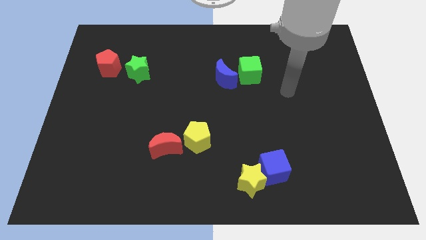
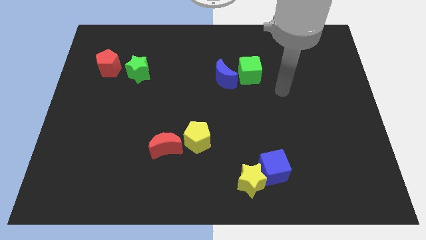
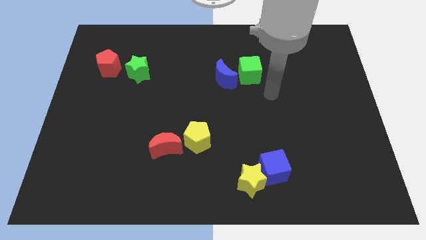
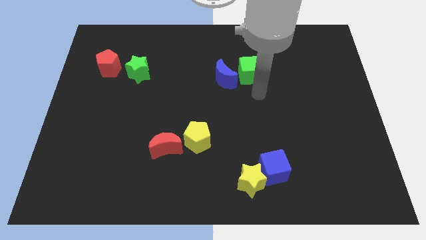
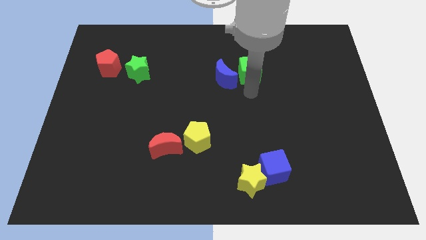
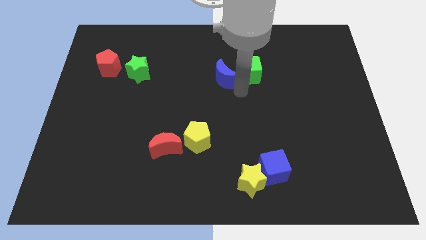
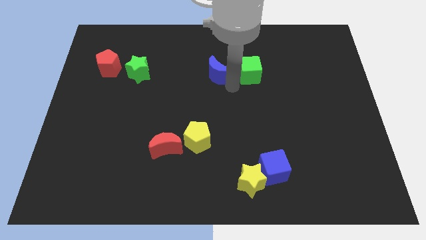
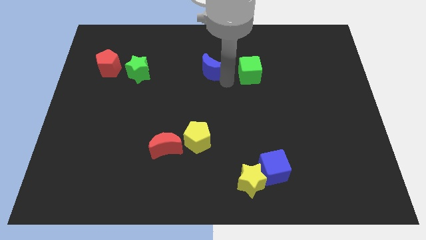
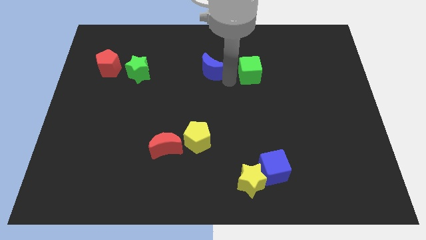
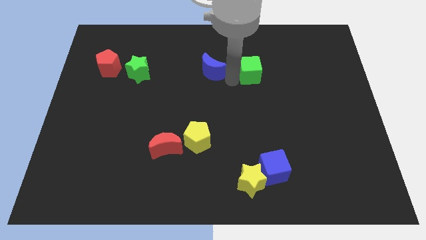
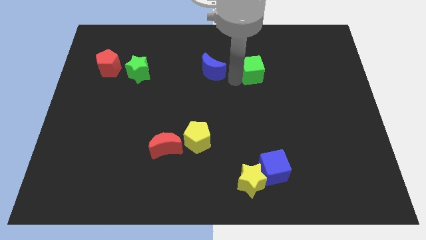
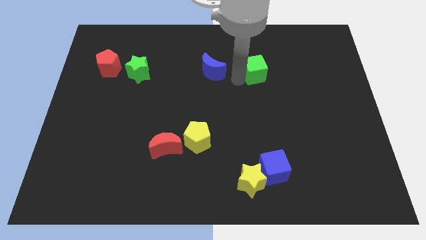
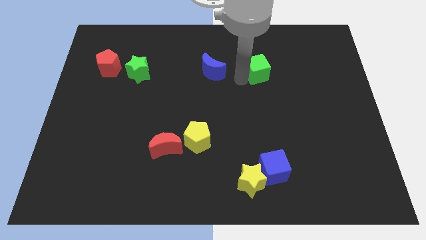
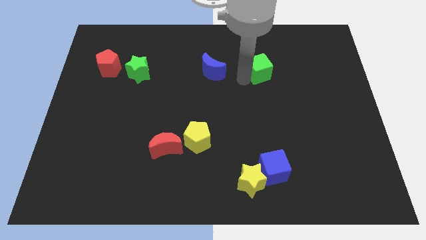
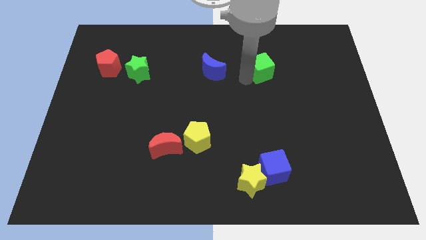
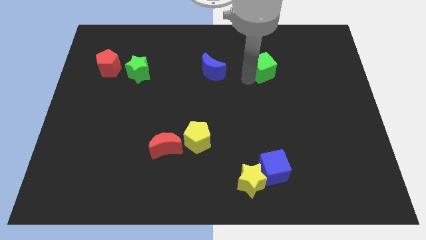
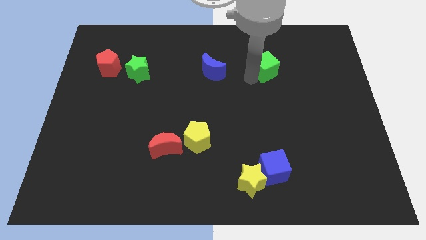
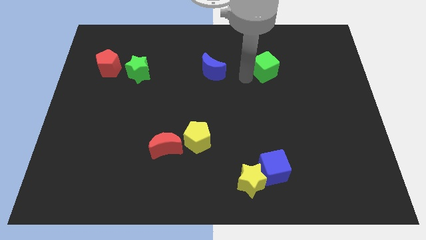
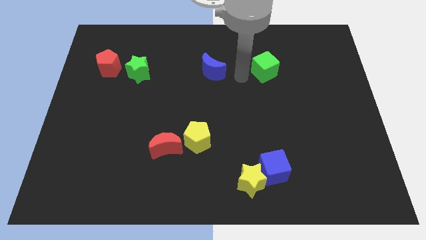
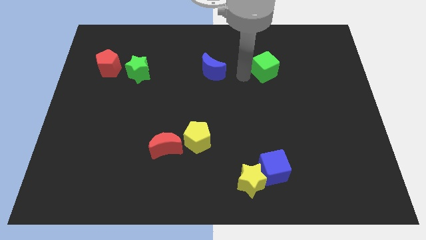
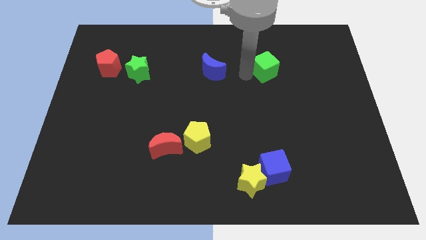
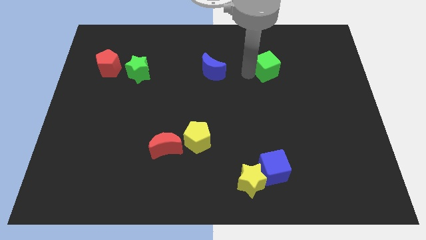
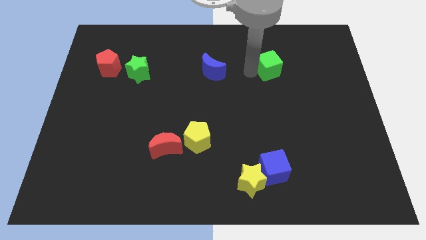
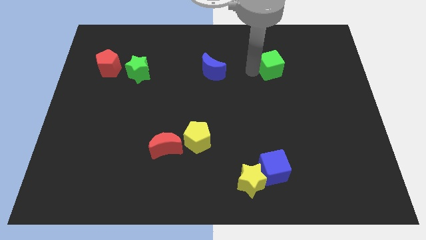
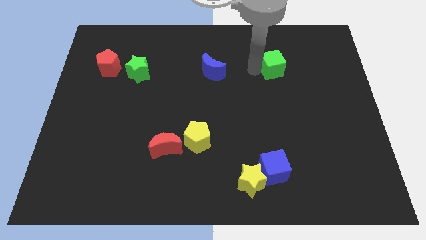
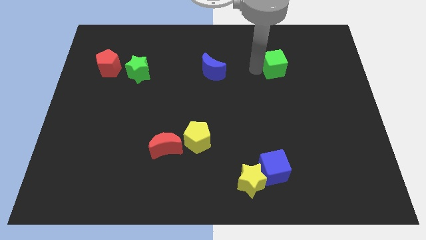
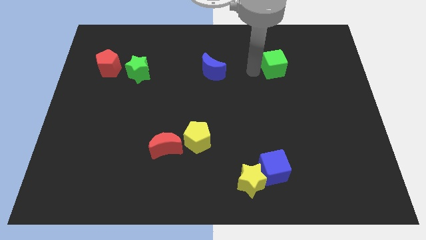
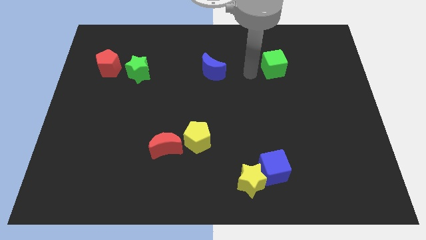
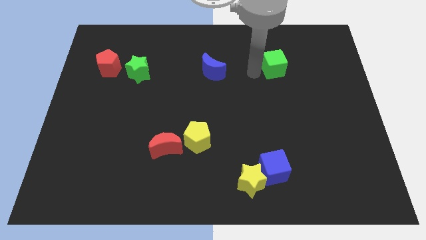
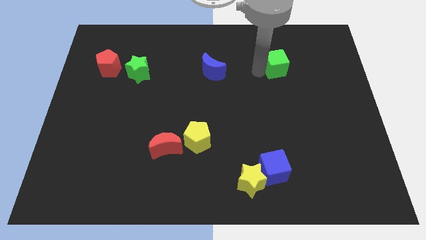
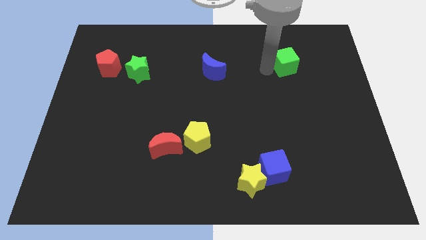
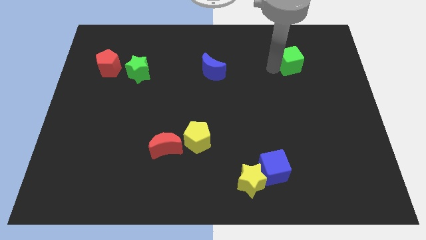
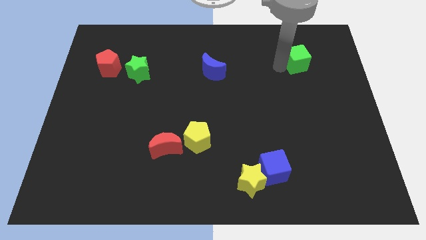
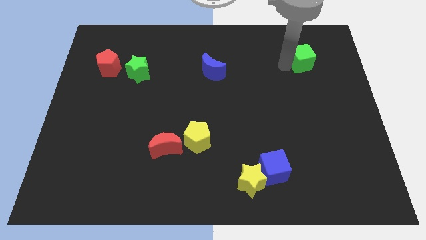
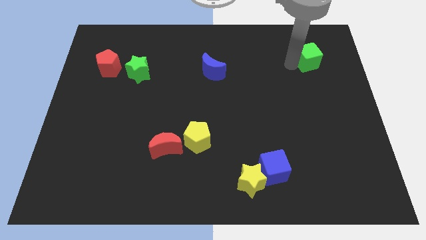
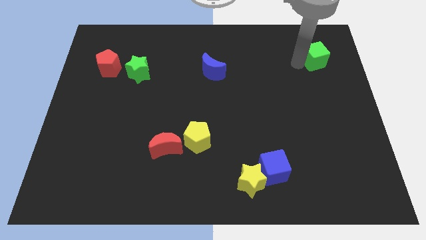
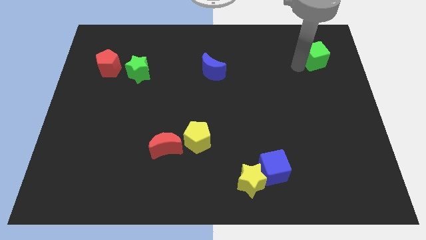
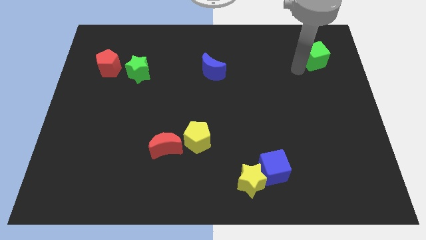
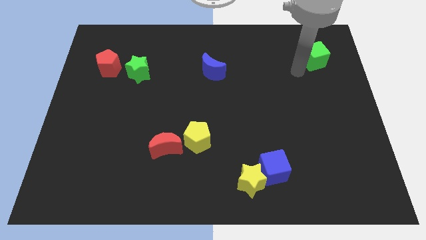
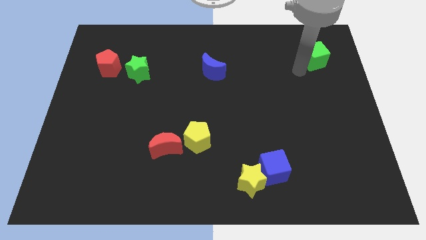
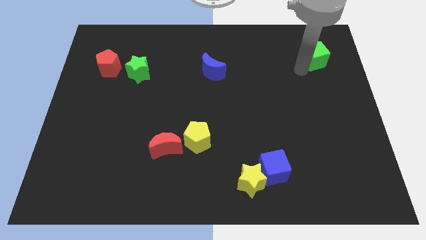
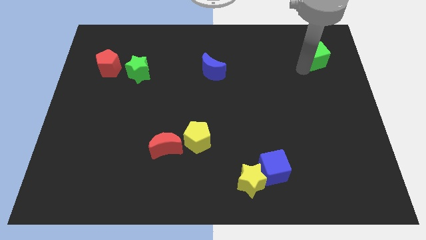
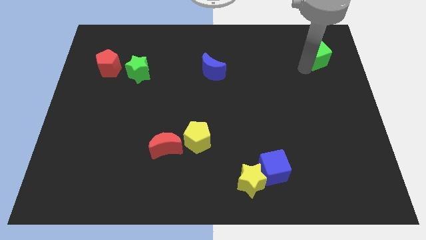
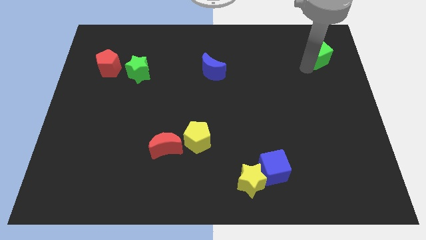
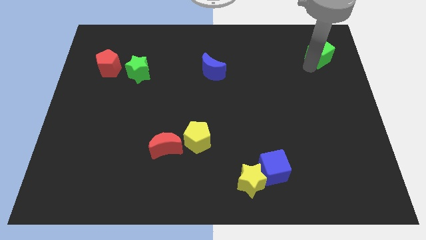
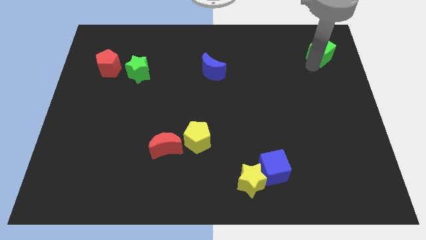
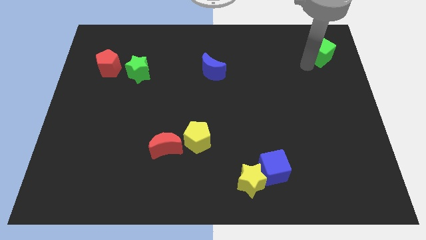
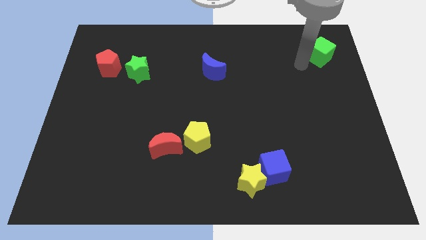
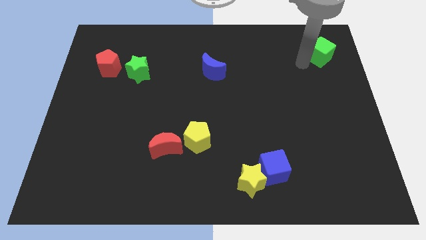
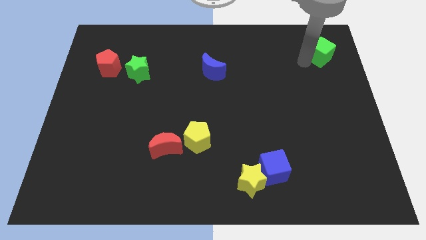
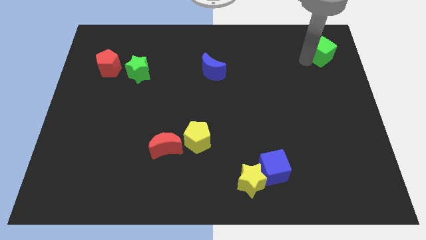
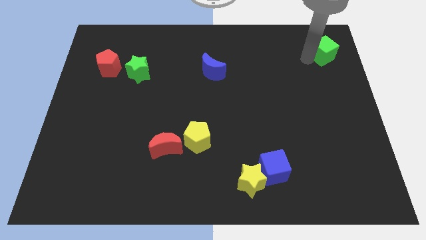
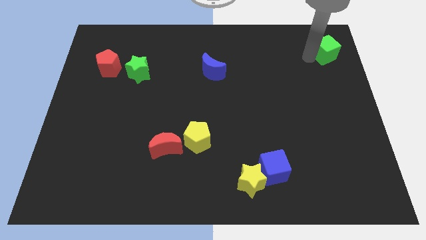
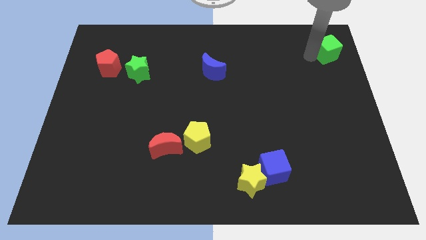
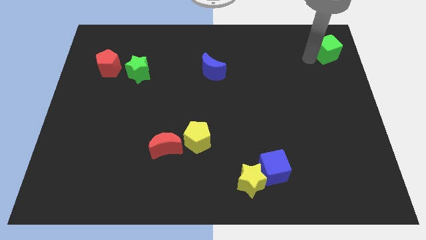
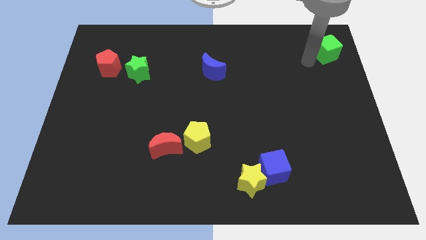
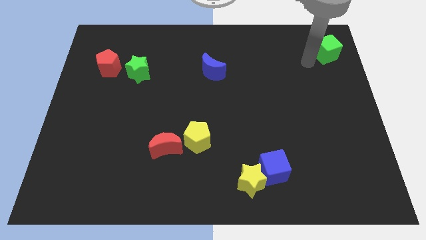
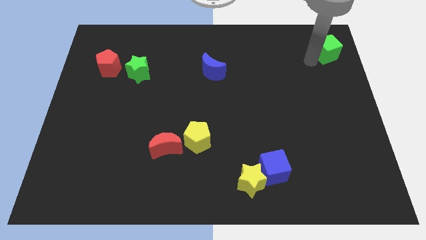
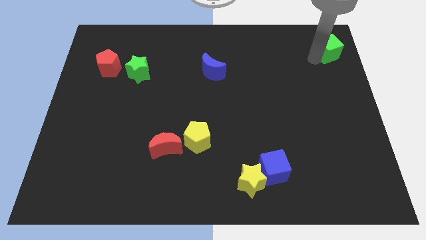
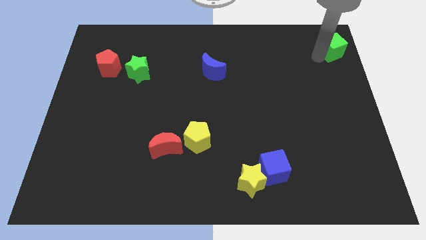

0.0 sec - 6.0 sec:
push the green cube to the top right

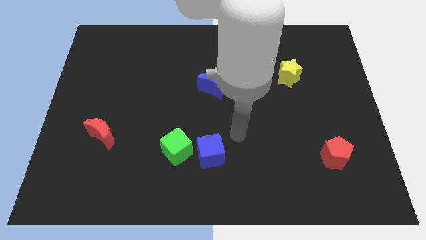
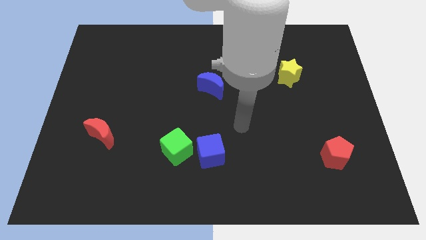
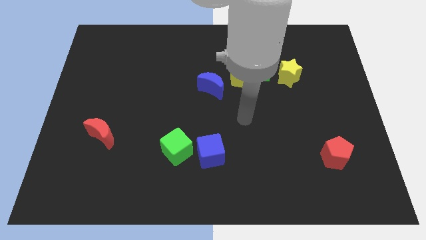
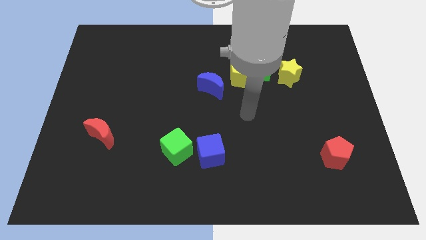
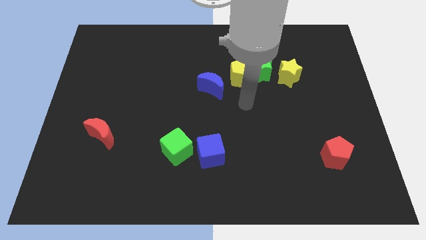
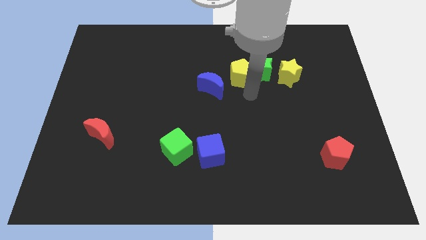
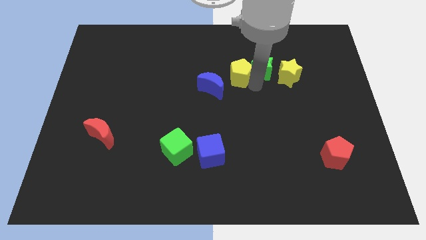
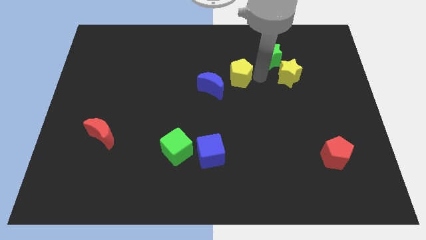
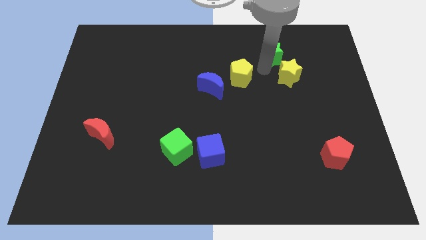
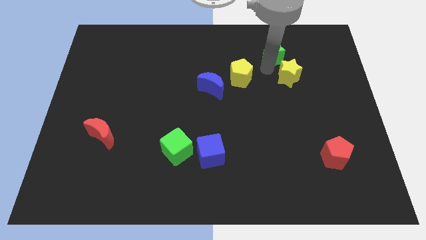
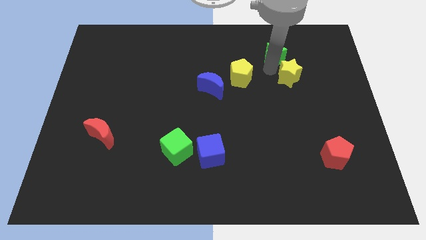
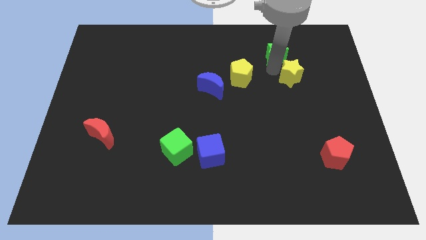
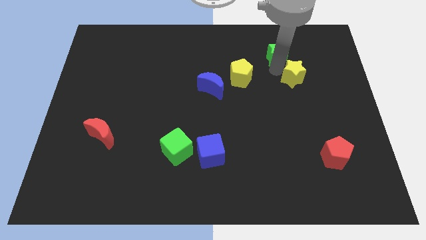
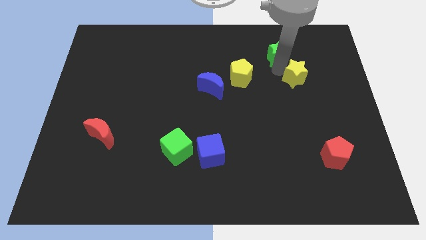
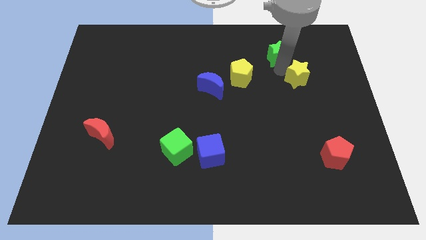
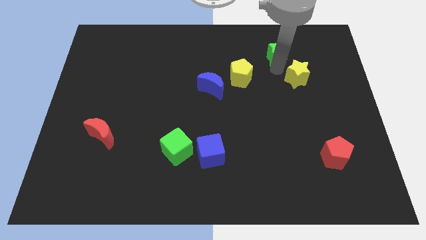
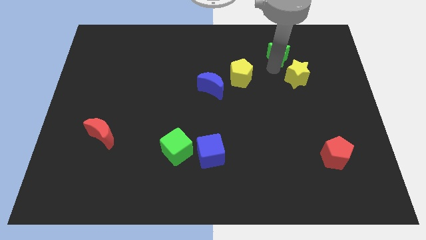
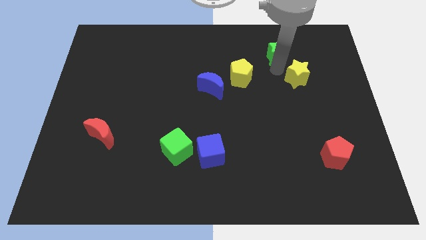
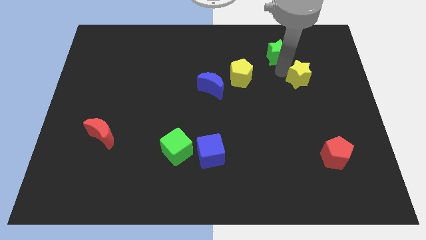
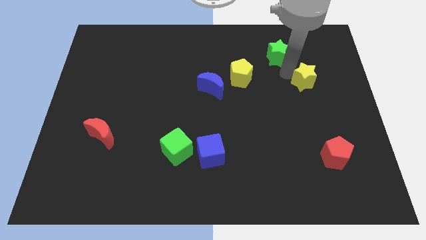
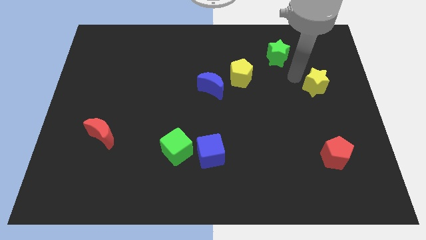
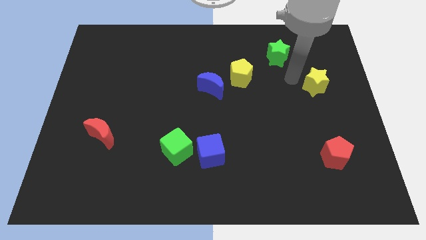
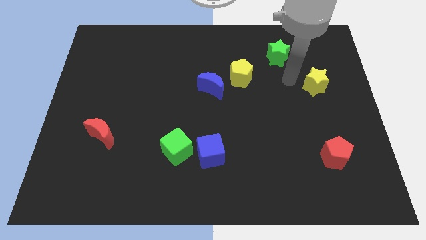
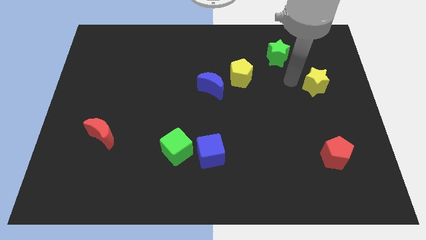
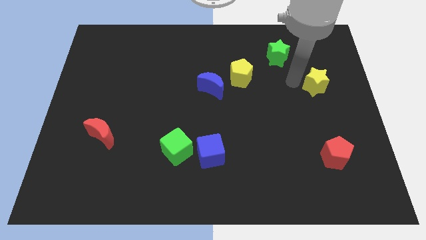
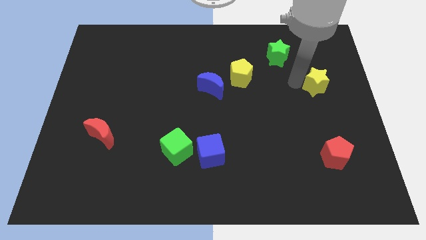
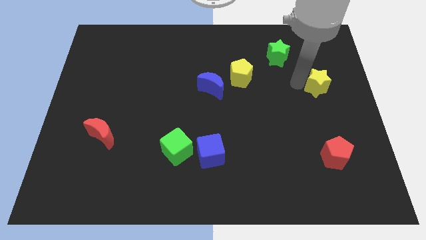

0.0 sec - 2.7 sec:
slide the yellow star to the center right
